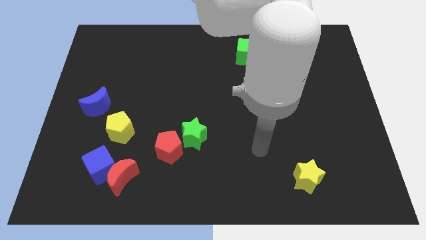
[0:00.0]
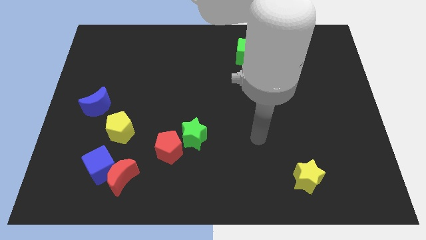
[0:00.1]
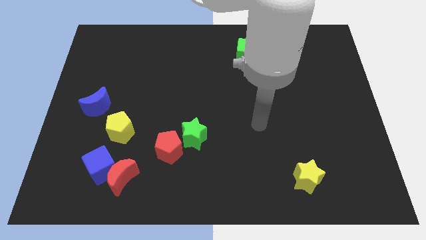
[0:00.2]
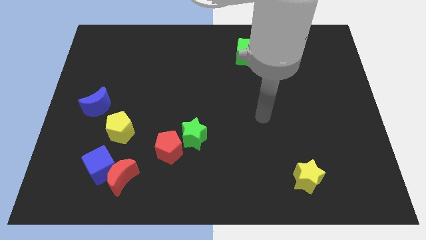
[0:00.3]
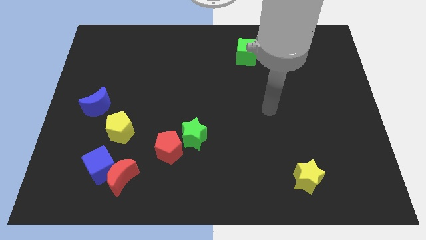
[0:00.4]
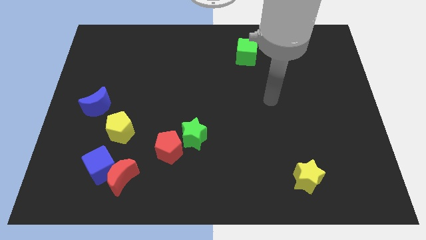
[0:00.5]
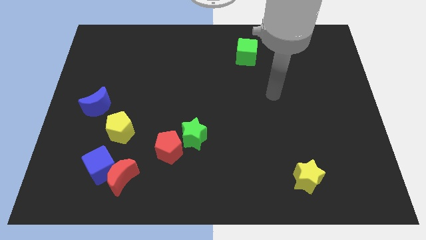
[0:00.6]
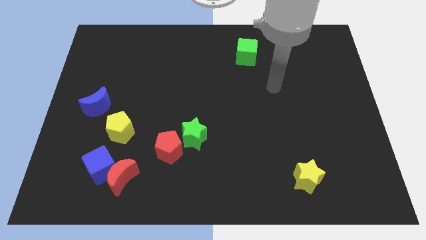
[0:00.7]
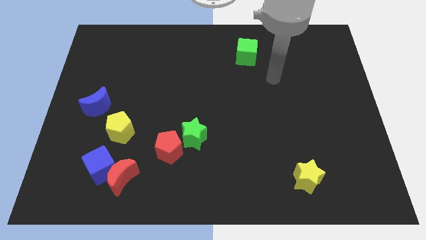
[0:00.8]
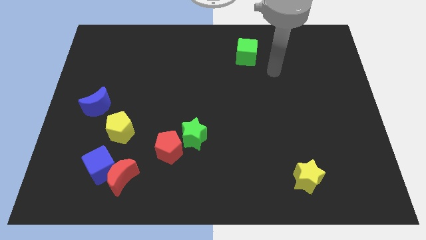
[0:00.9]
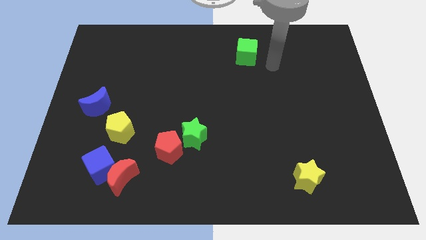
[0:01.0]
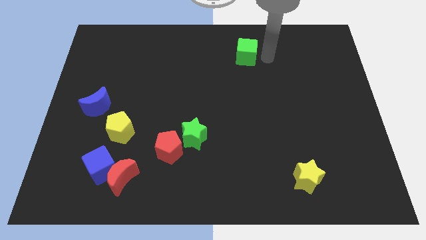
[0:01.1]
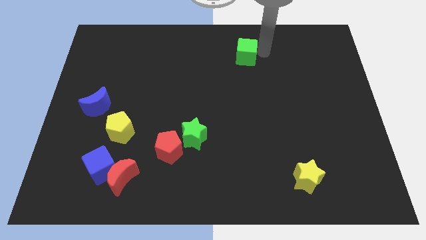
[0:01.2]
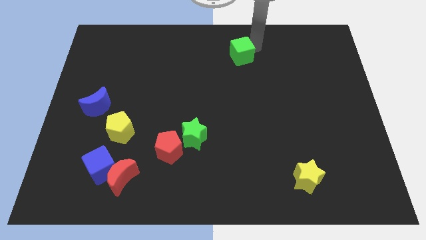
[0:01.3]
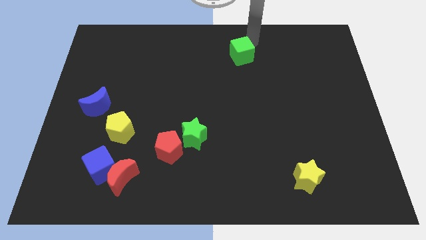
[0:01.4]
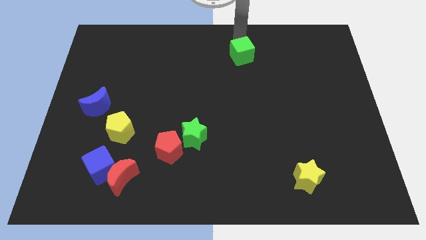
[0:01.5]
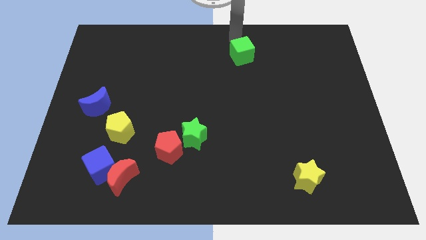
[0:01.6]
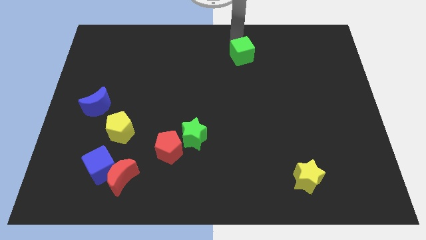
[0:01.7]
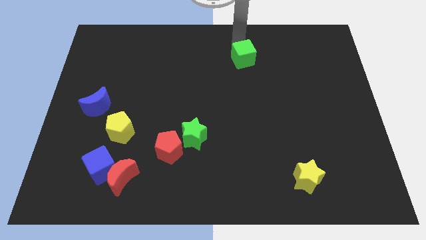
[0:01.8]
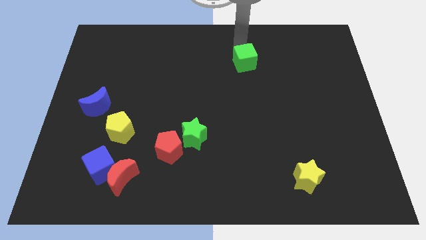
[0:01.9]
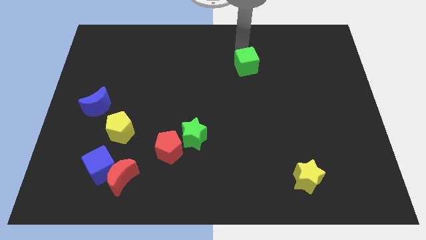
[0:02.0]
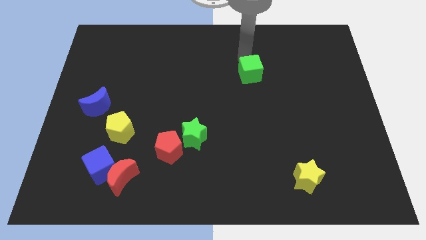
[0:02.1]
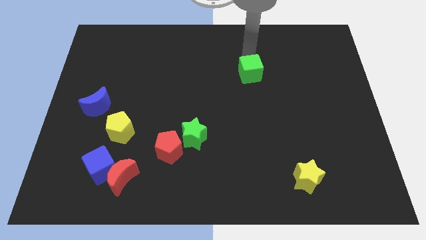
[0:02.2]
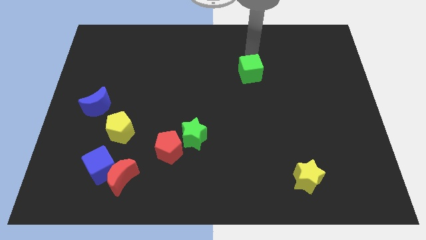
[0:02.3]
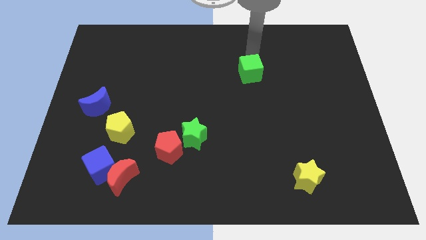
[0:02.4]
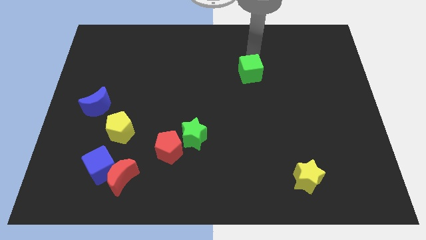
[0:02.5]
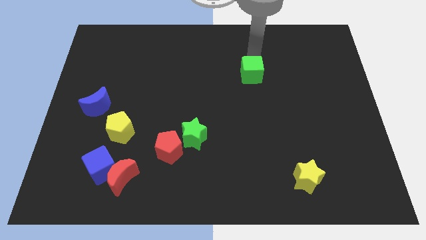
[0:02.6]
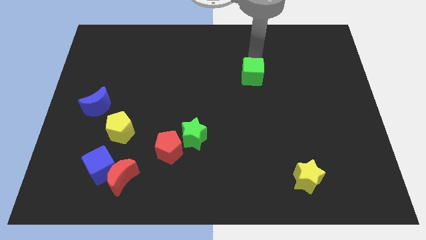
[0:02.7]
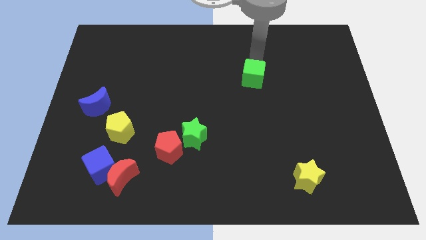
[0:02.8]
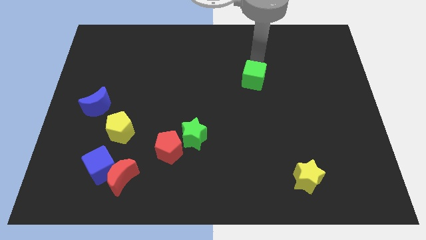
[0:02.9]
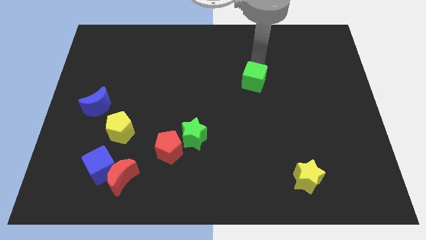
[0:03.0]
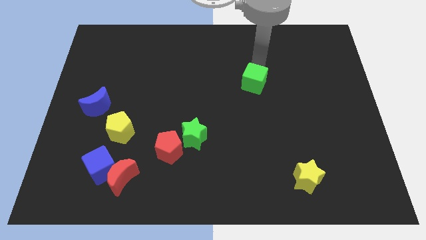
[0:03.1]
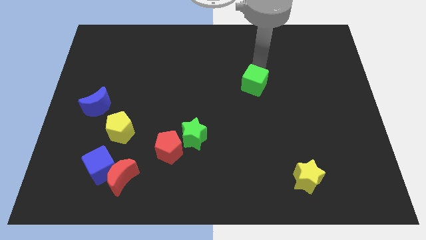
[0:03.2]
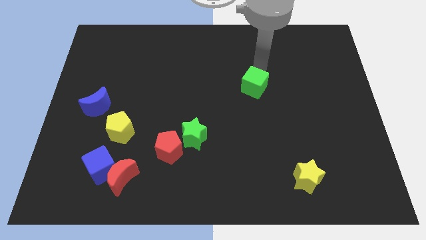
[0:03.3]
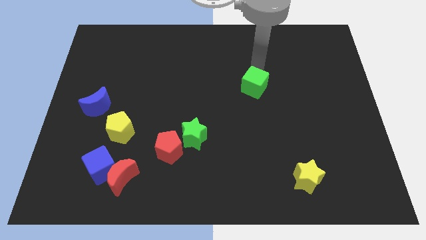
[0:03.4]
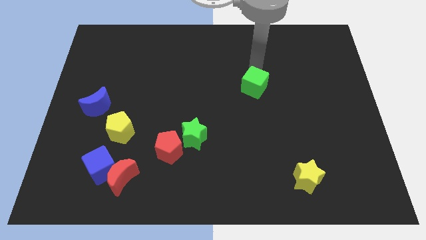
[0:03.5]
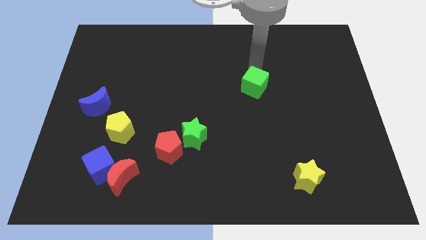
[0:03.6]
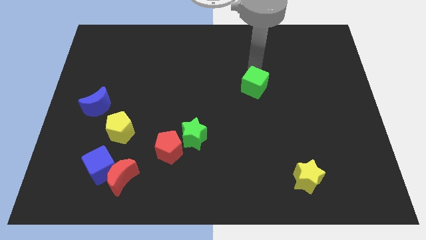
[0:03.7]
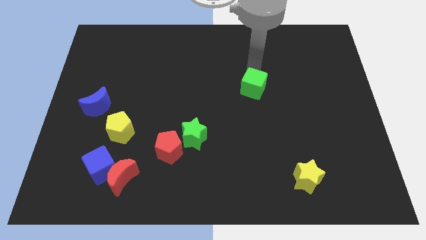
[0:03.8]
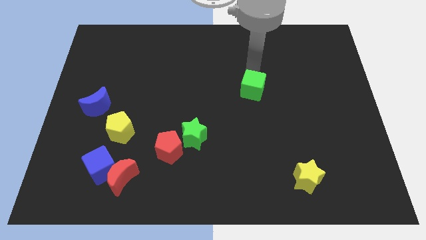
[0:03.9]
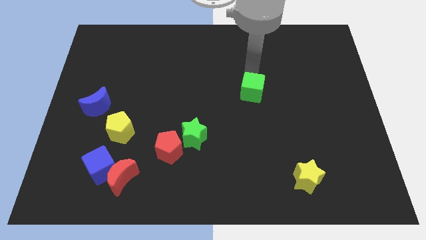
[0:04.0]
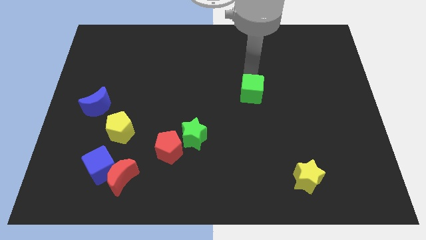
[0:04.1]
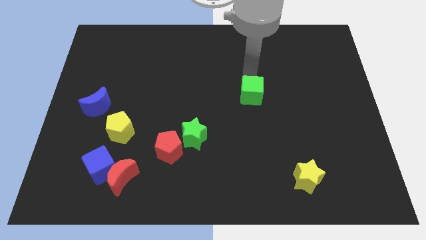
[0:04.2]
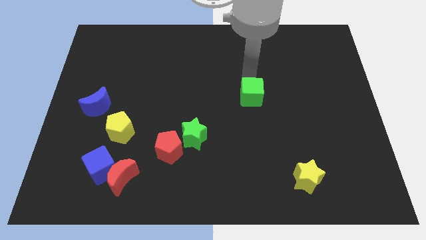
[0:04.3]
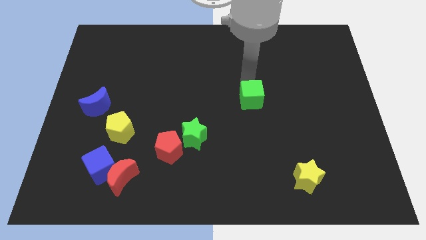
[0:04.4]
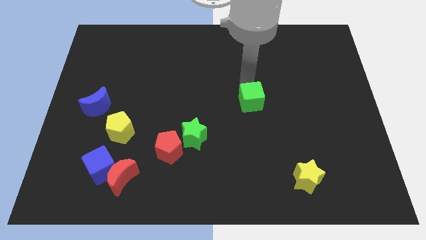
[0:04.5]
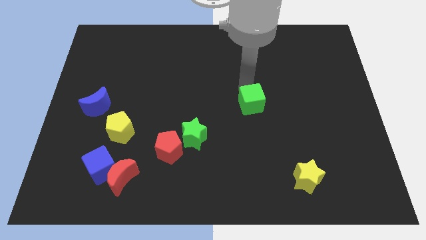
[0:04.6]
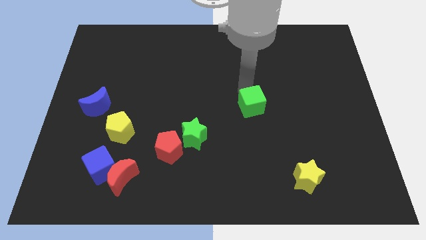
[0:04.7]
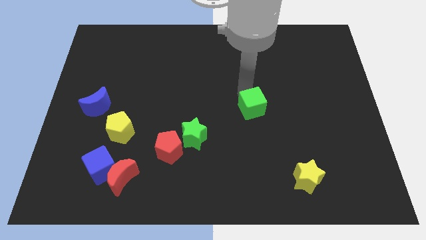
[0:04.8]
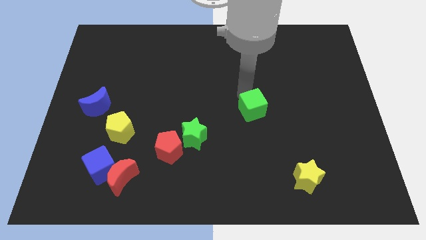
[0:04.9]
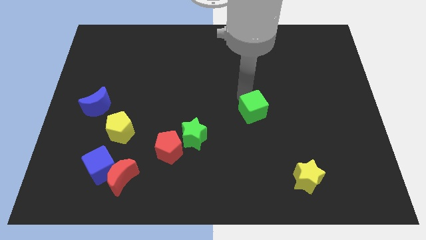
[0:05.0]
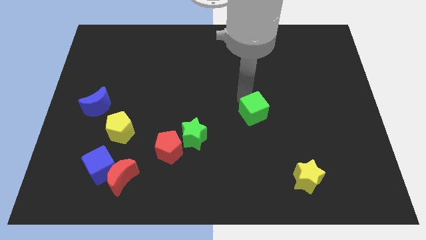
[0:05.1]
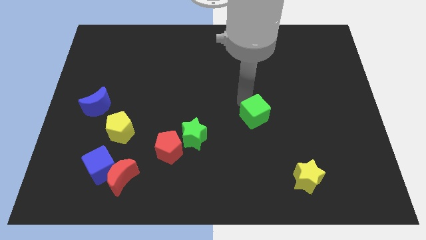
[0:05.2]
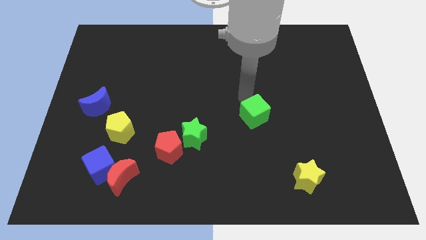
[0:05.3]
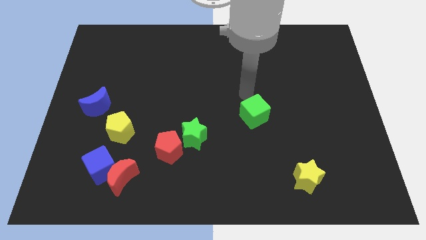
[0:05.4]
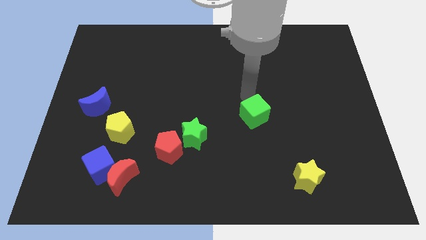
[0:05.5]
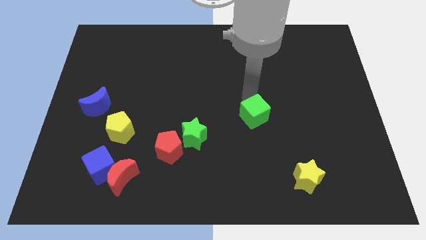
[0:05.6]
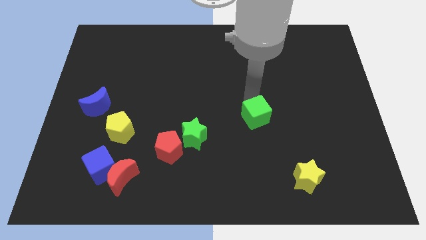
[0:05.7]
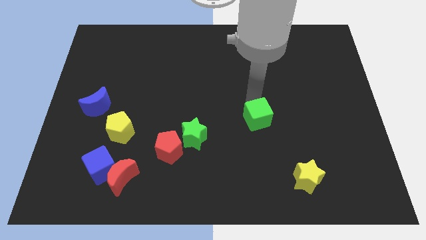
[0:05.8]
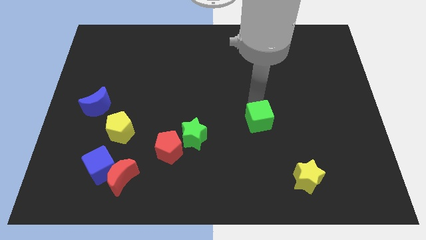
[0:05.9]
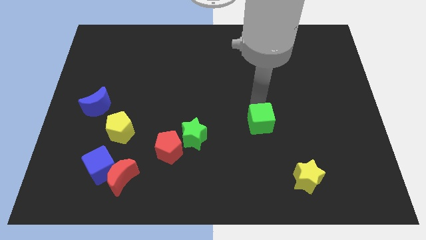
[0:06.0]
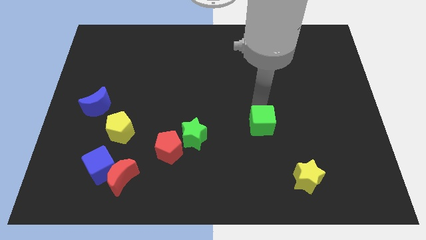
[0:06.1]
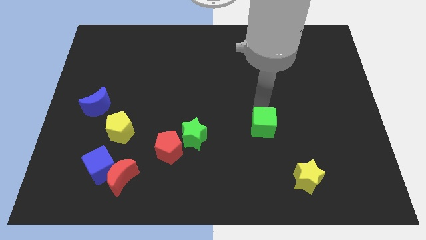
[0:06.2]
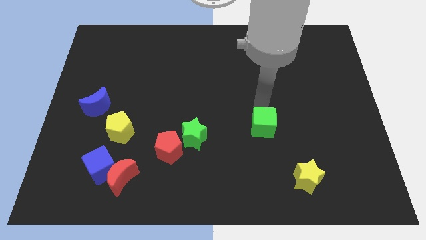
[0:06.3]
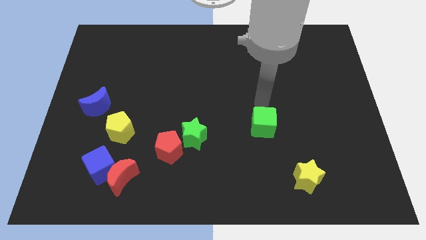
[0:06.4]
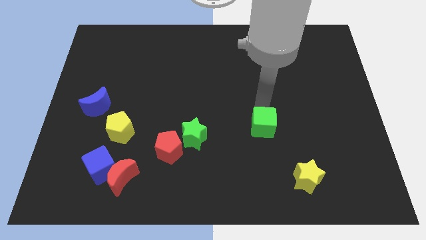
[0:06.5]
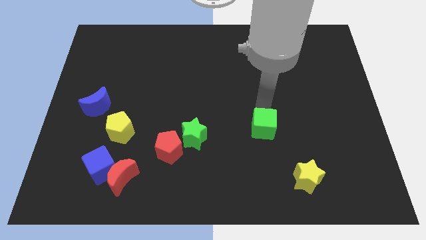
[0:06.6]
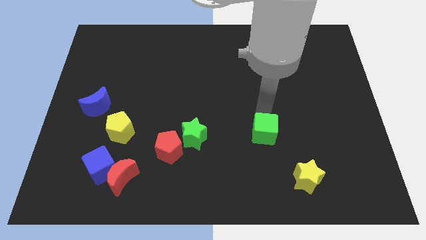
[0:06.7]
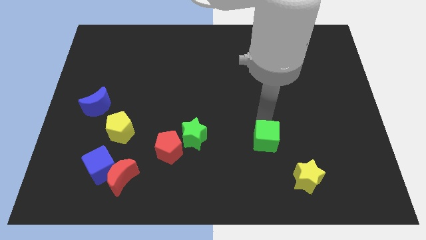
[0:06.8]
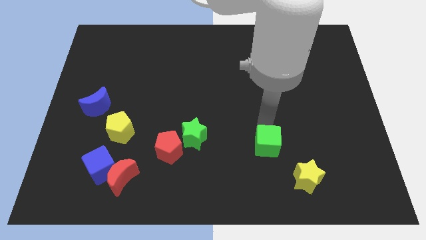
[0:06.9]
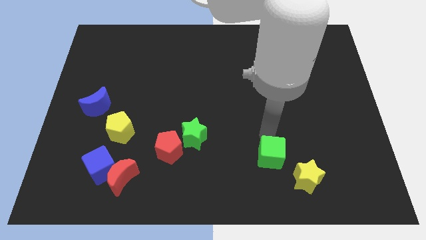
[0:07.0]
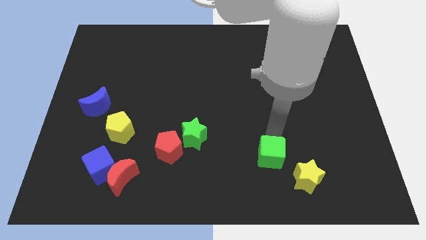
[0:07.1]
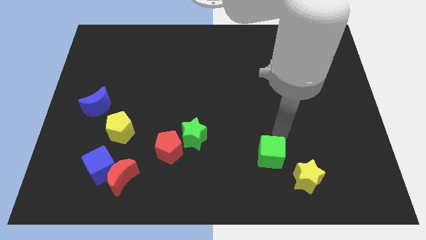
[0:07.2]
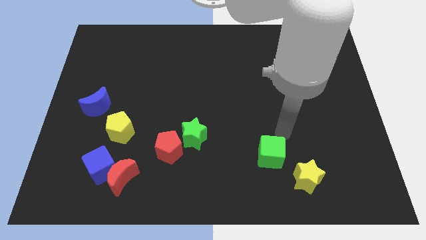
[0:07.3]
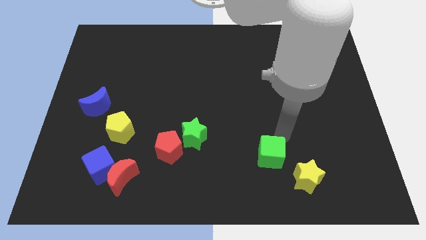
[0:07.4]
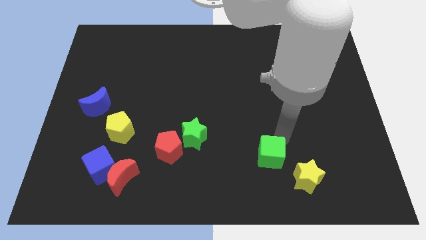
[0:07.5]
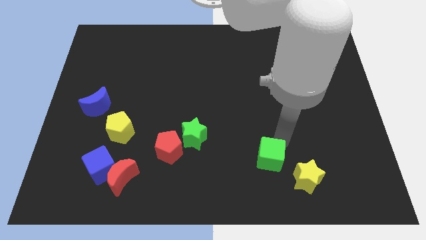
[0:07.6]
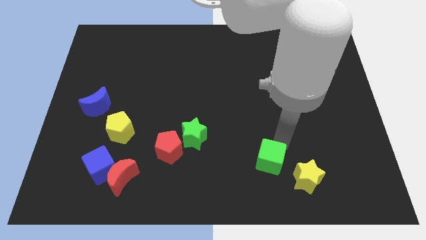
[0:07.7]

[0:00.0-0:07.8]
slide the green cube to the left of the yellow star

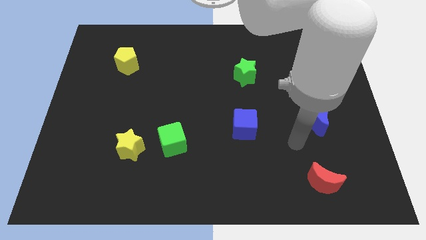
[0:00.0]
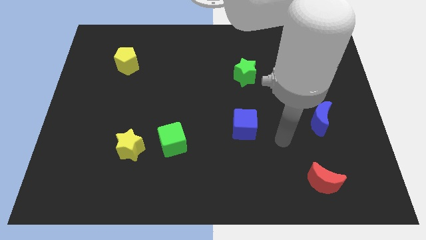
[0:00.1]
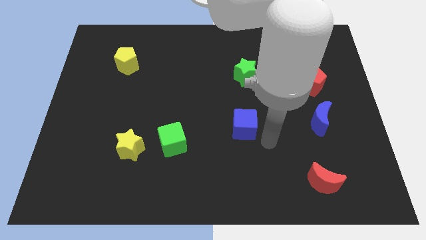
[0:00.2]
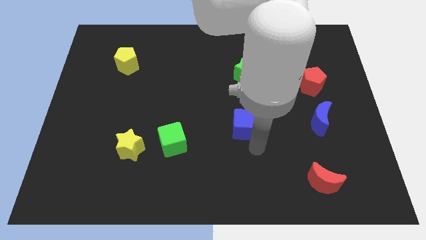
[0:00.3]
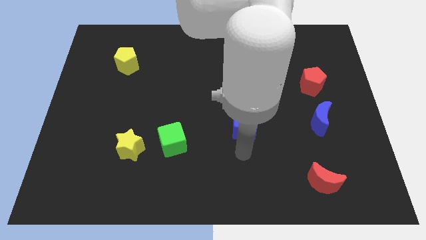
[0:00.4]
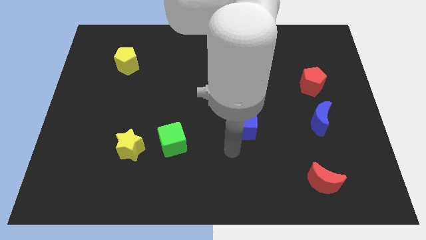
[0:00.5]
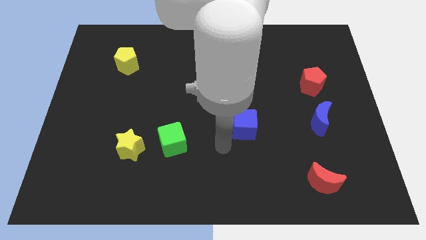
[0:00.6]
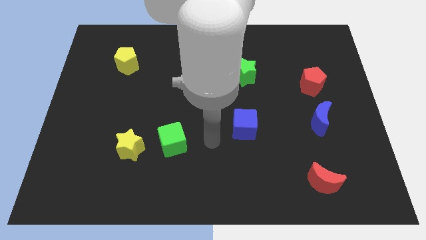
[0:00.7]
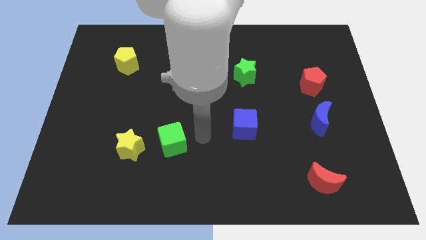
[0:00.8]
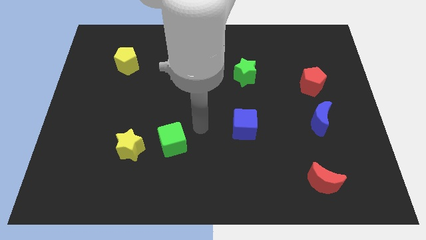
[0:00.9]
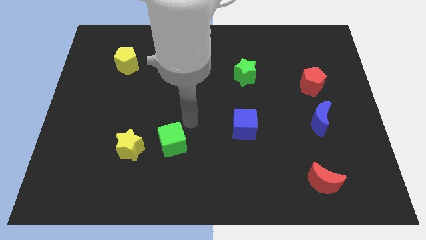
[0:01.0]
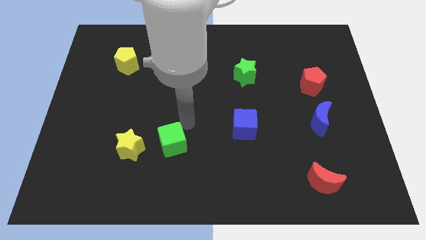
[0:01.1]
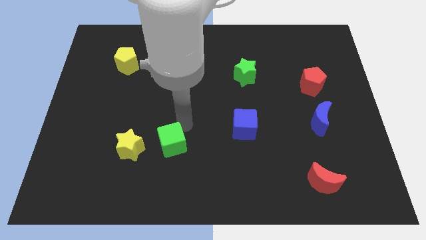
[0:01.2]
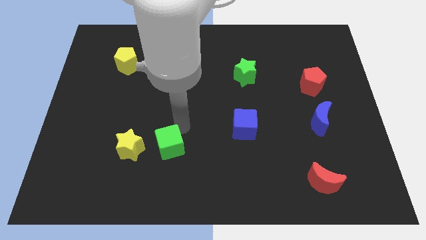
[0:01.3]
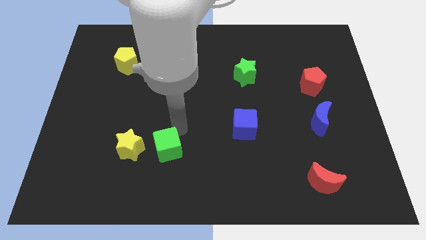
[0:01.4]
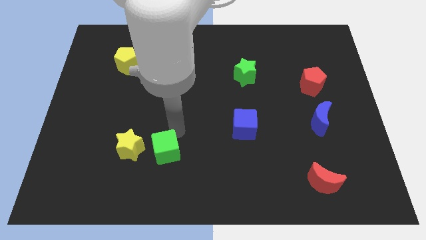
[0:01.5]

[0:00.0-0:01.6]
move the green cube to the bottom right side of the yellow star
